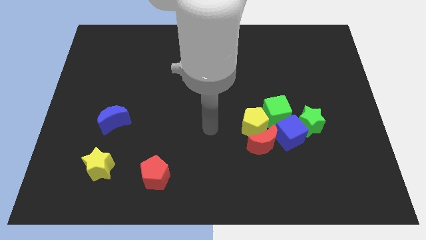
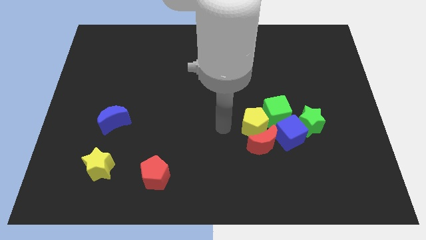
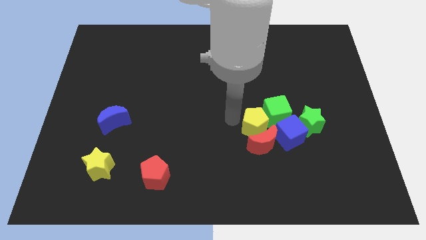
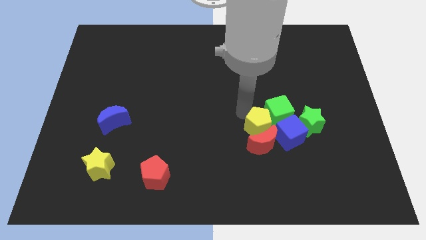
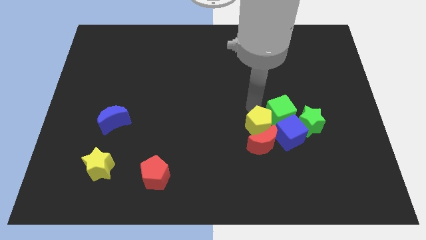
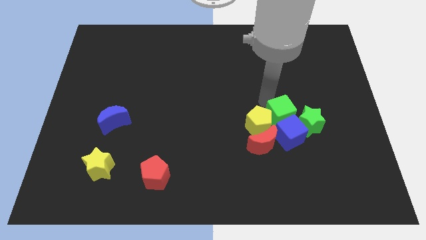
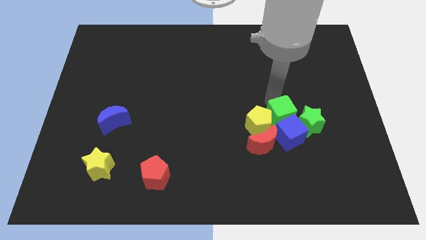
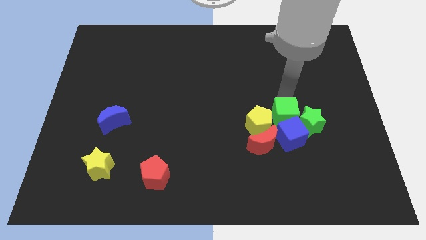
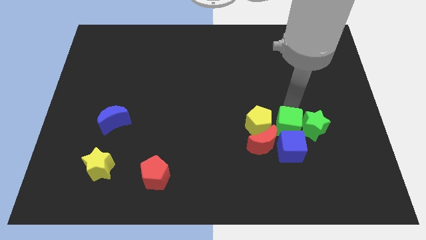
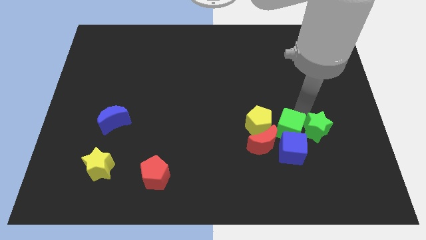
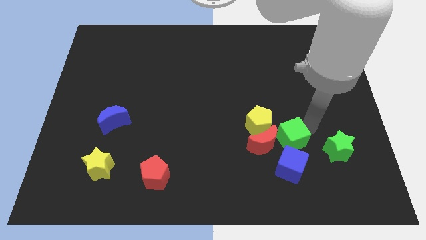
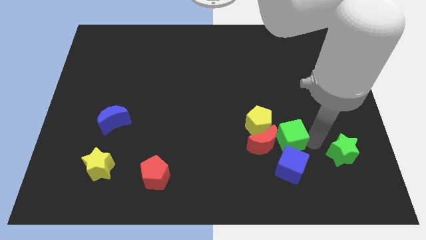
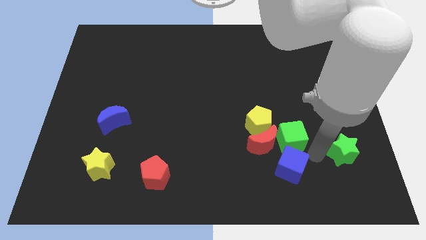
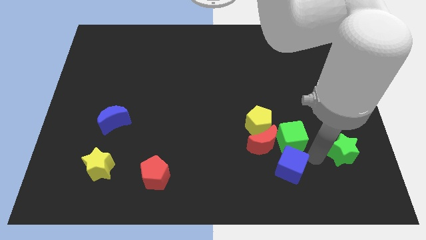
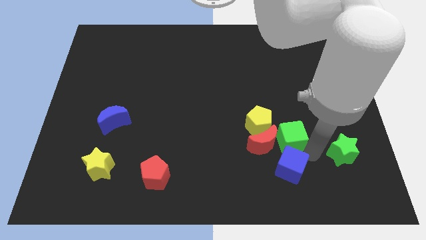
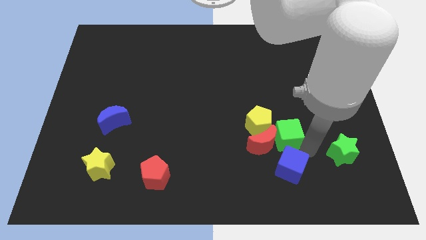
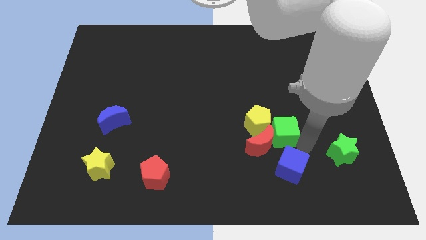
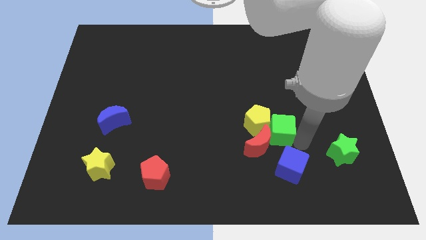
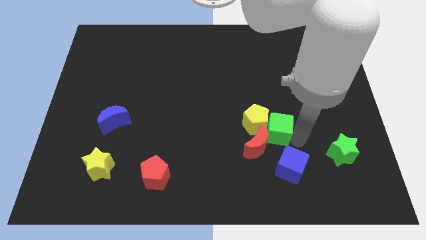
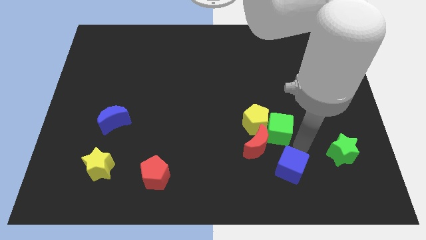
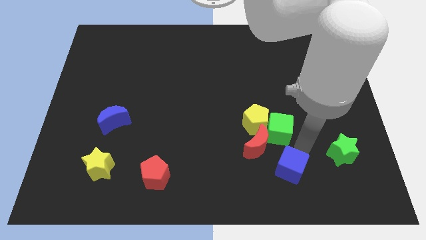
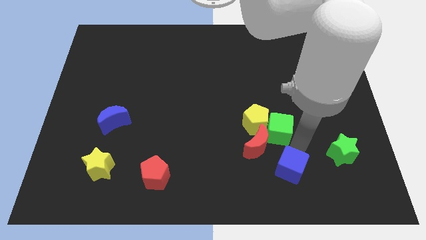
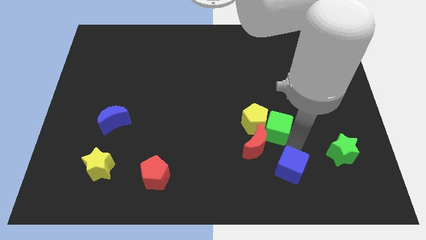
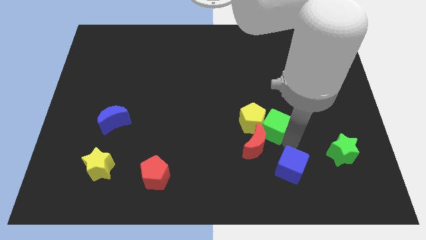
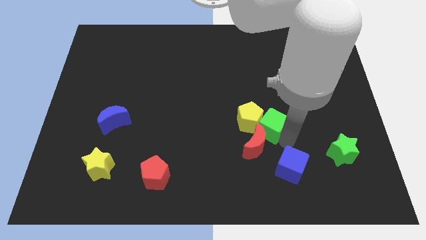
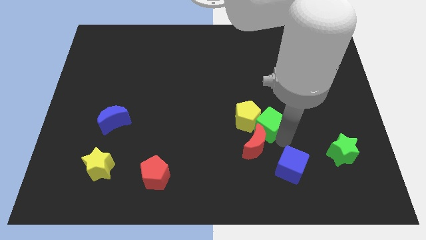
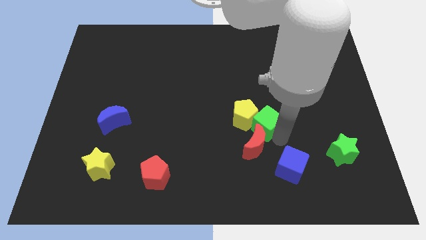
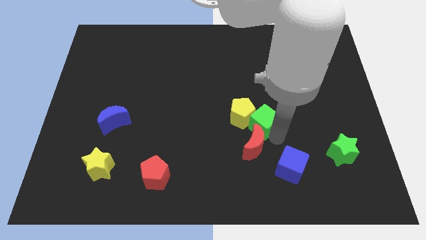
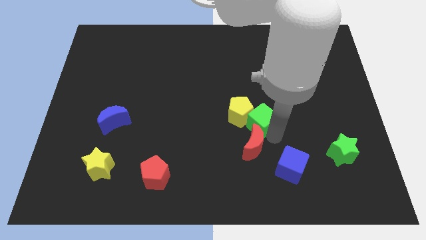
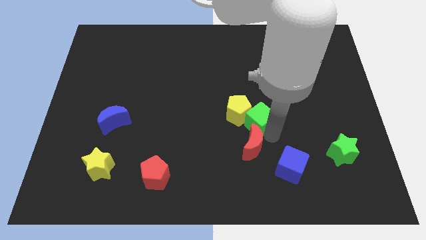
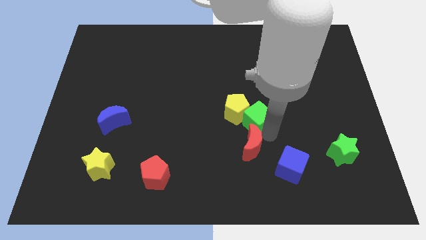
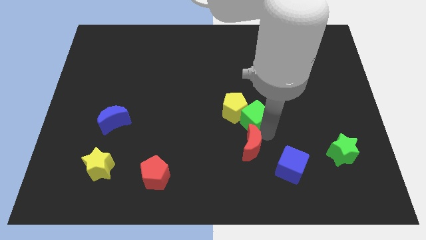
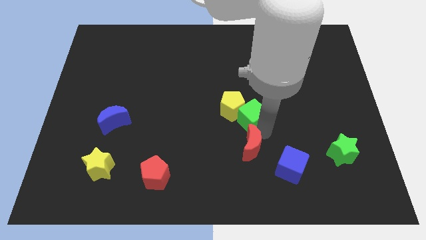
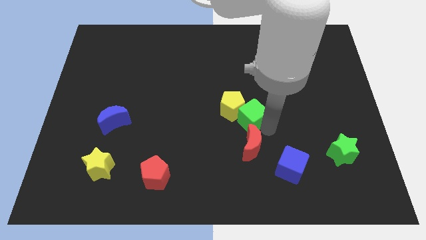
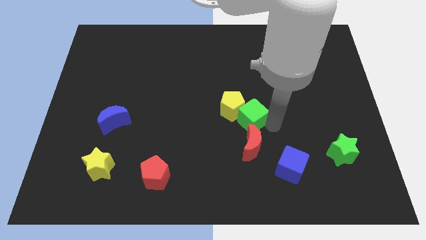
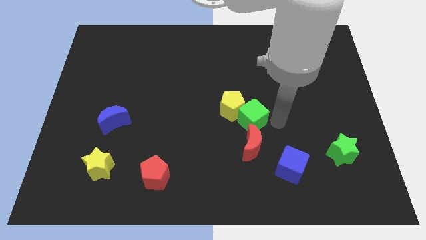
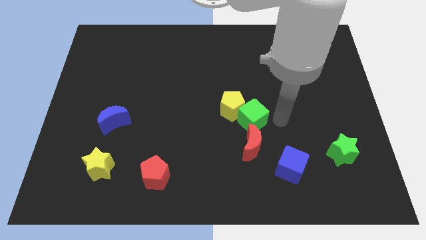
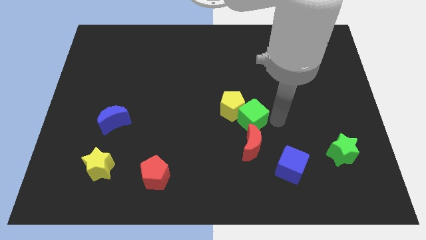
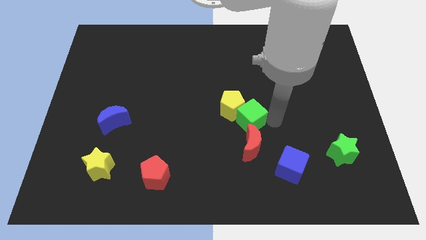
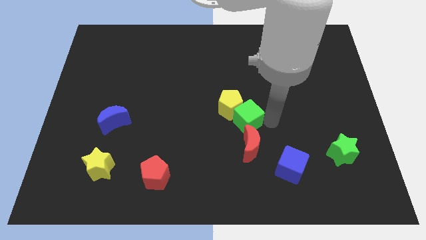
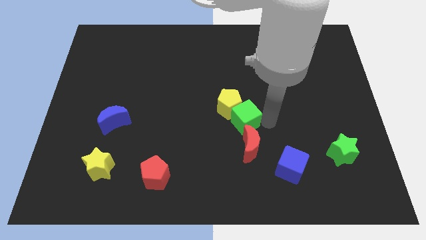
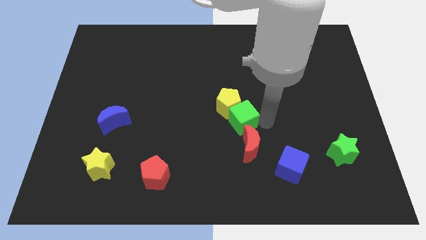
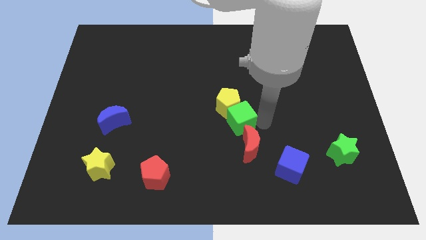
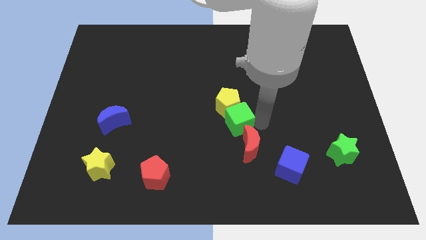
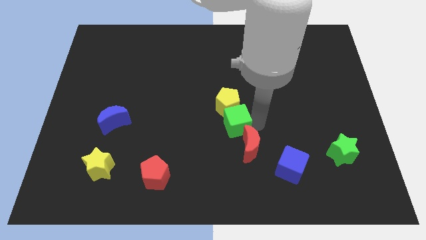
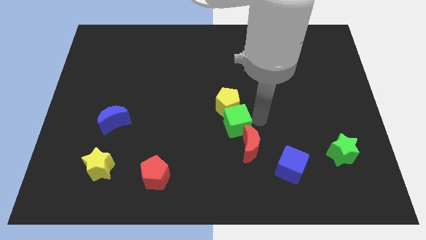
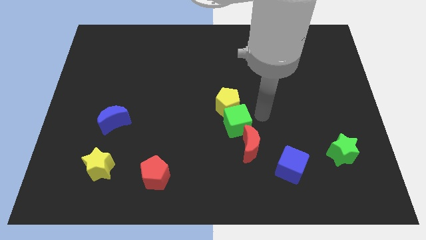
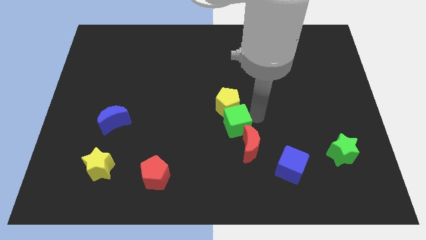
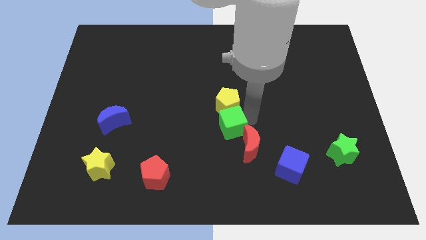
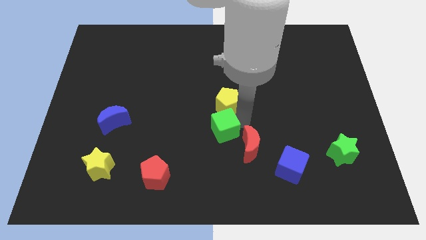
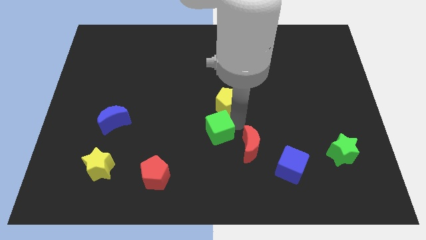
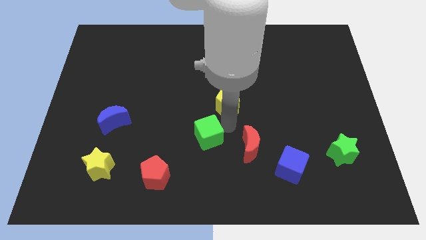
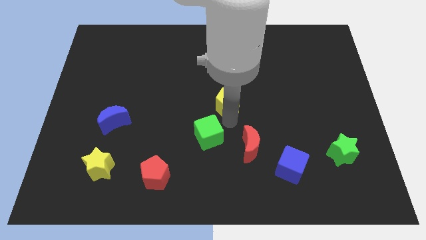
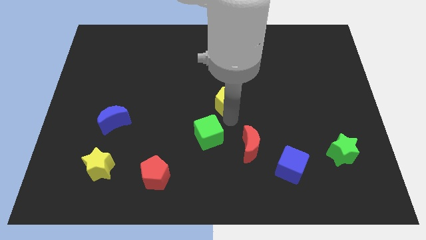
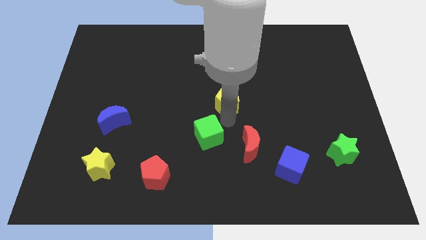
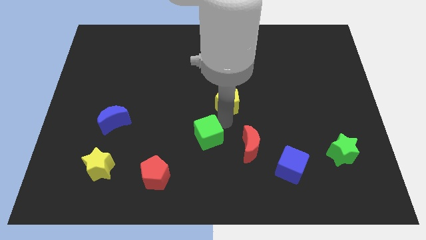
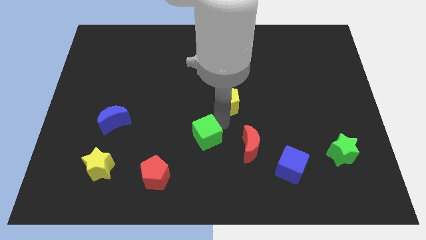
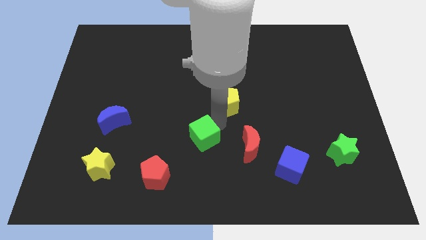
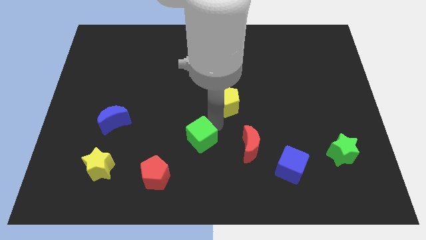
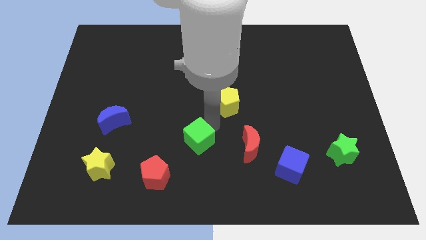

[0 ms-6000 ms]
put the green cube diagonally up and to the right of the red pentagon
